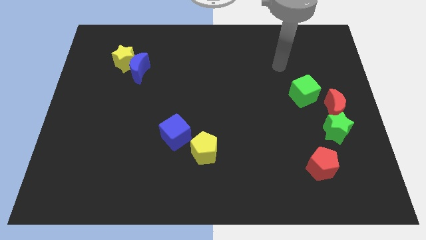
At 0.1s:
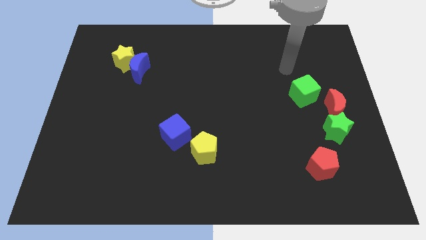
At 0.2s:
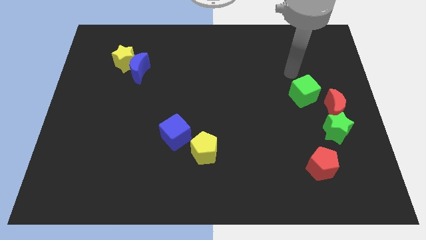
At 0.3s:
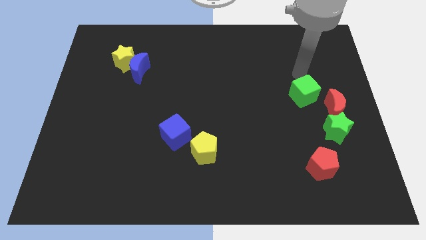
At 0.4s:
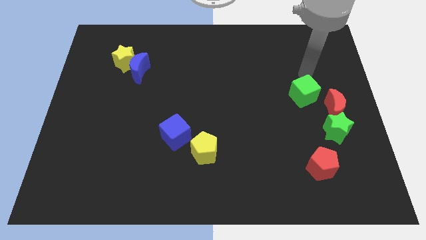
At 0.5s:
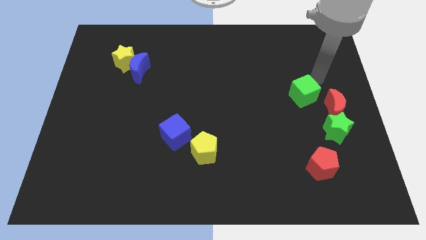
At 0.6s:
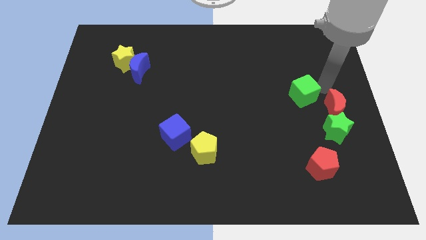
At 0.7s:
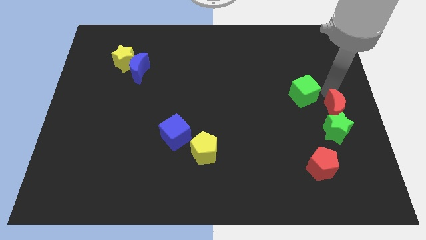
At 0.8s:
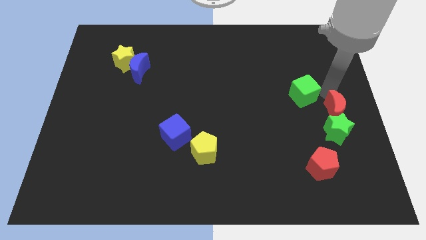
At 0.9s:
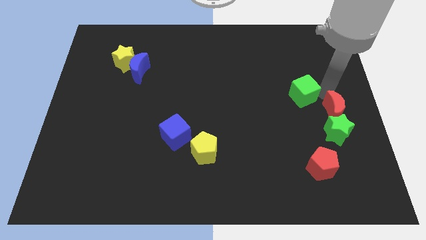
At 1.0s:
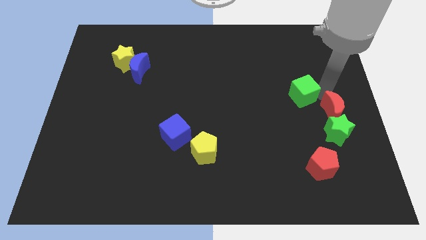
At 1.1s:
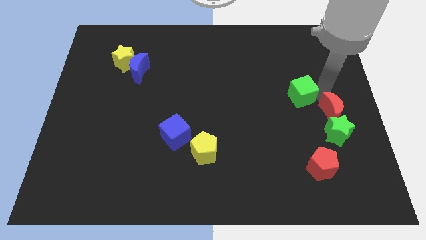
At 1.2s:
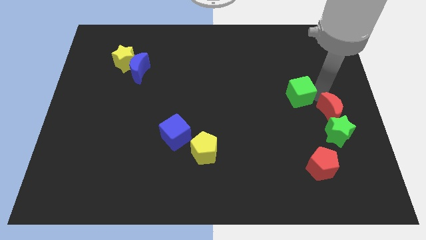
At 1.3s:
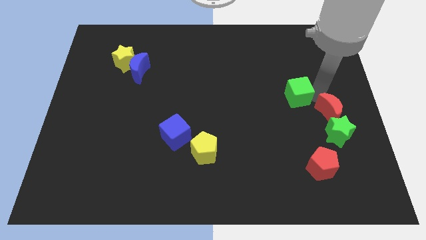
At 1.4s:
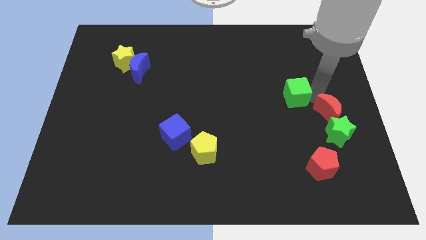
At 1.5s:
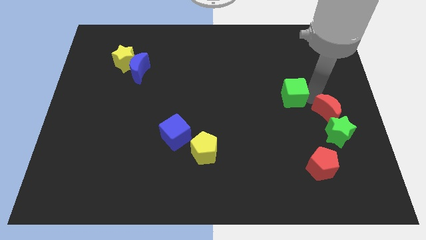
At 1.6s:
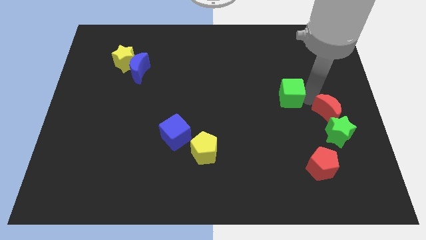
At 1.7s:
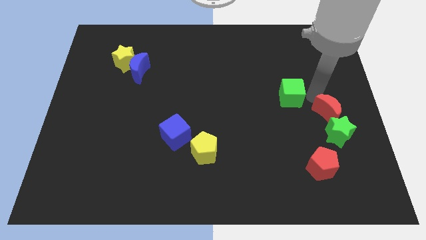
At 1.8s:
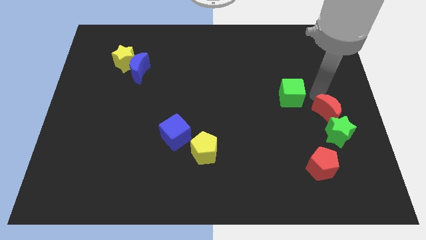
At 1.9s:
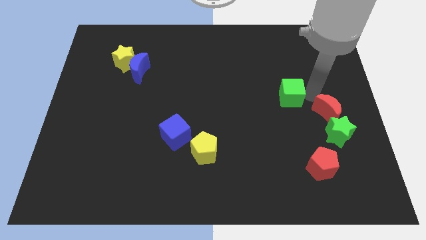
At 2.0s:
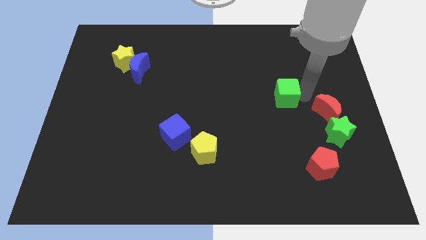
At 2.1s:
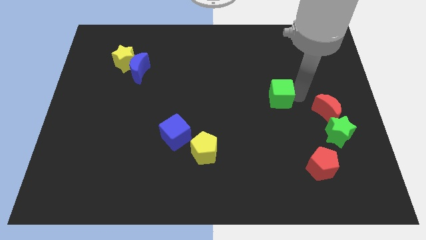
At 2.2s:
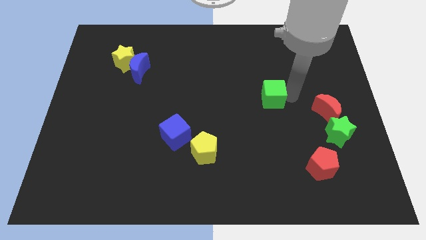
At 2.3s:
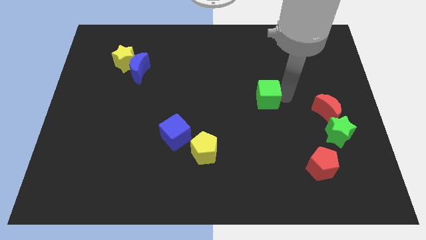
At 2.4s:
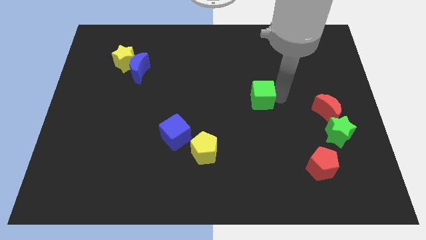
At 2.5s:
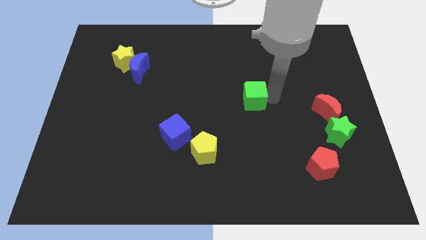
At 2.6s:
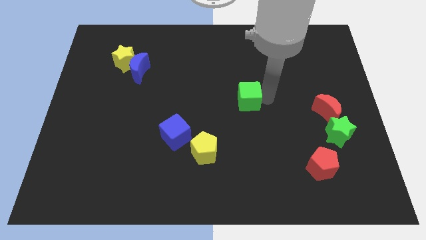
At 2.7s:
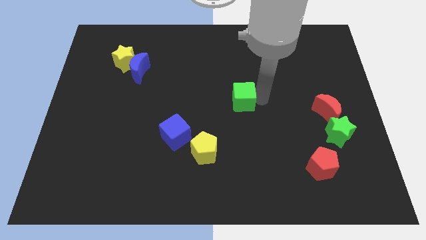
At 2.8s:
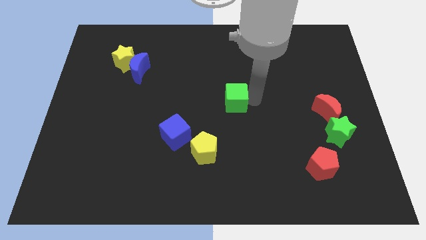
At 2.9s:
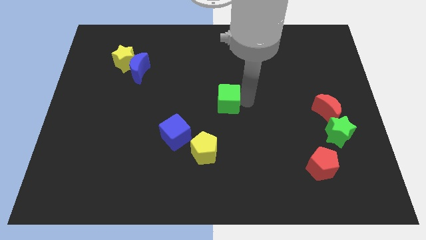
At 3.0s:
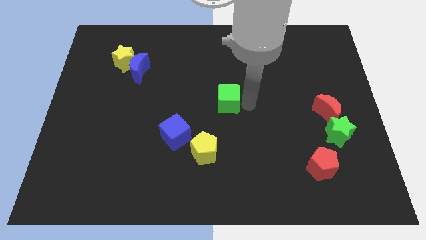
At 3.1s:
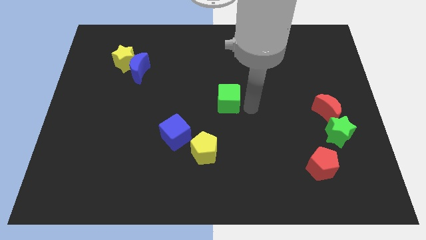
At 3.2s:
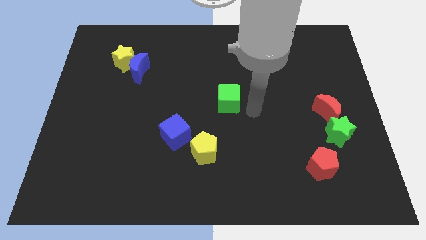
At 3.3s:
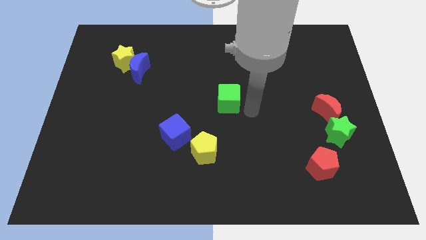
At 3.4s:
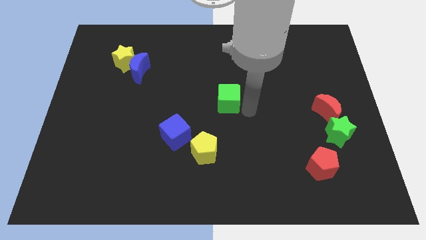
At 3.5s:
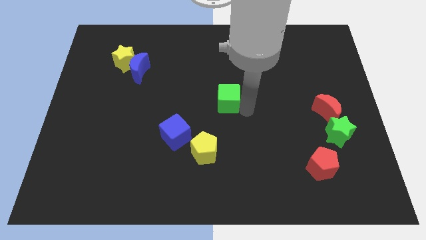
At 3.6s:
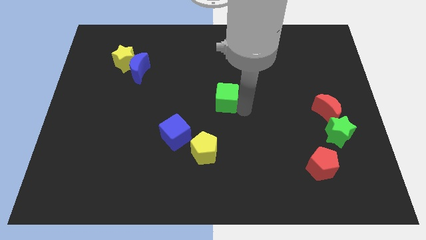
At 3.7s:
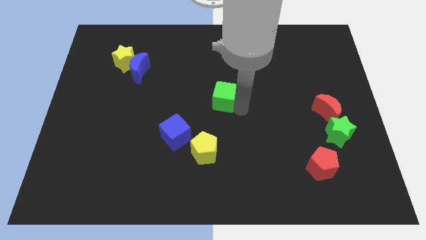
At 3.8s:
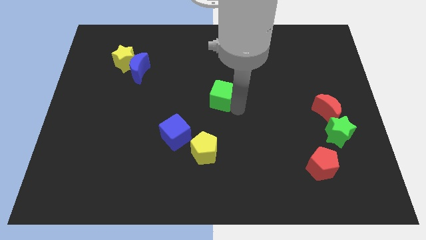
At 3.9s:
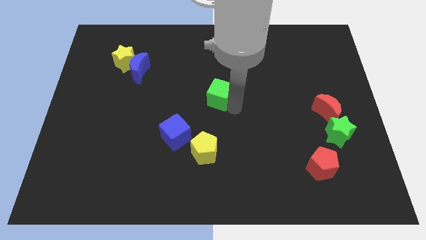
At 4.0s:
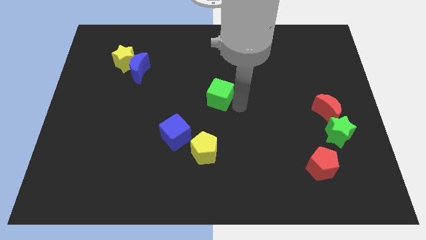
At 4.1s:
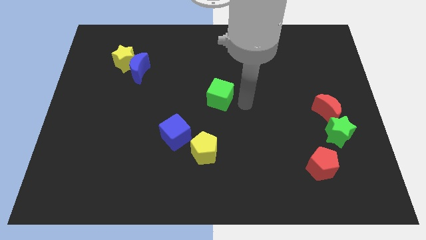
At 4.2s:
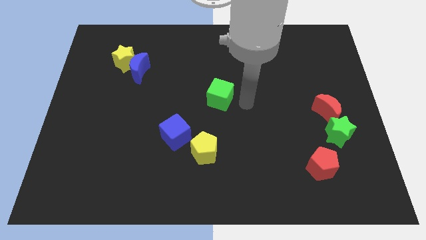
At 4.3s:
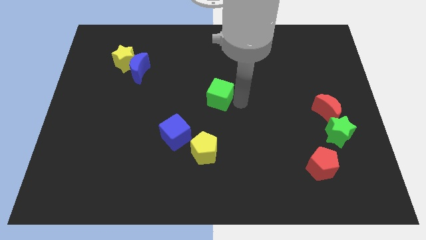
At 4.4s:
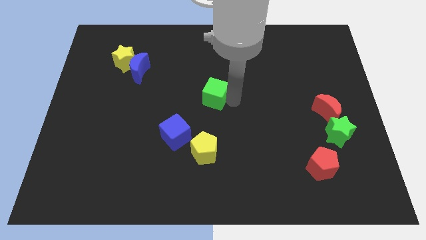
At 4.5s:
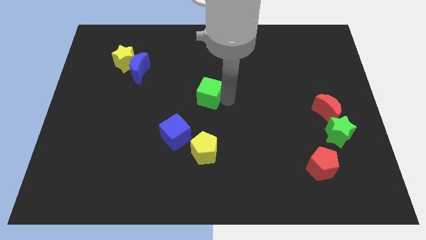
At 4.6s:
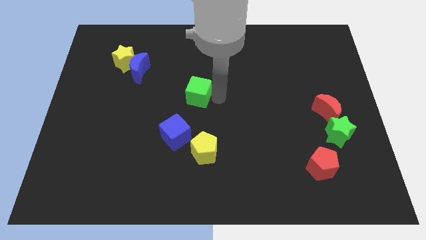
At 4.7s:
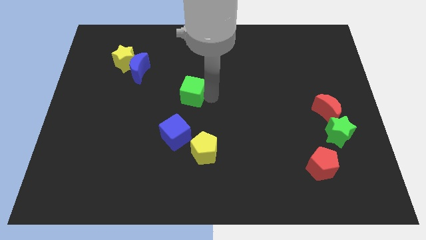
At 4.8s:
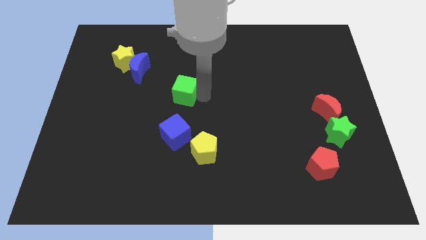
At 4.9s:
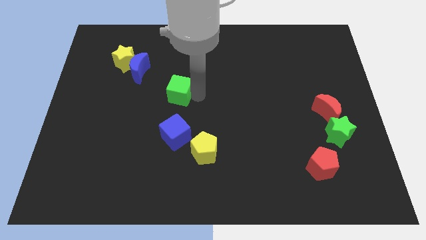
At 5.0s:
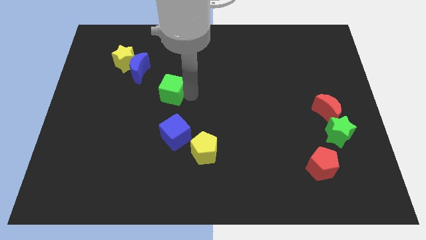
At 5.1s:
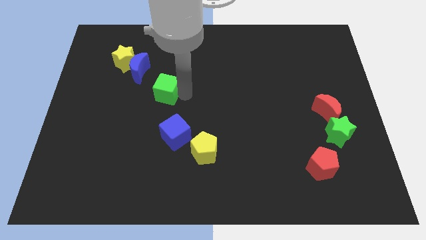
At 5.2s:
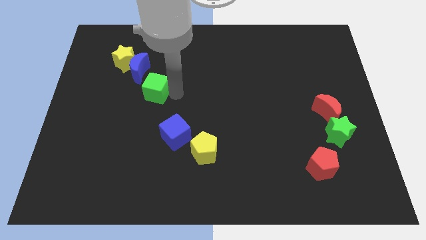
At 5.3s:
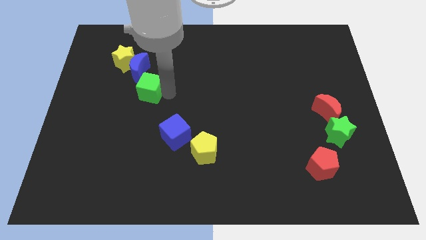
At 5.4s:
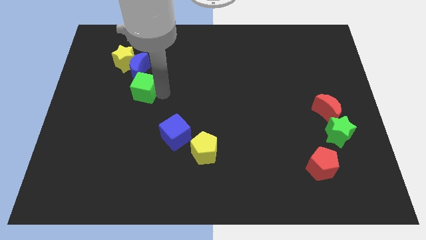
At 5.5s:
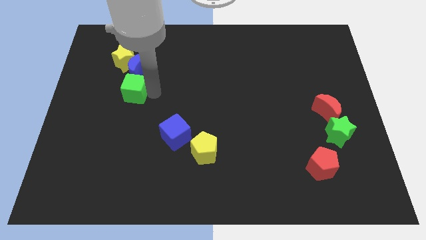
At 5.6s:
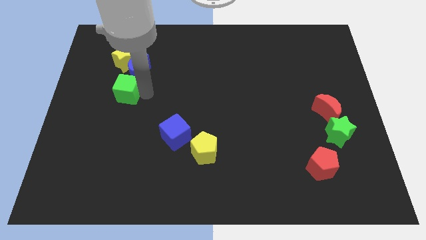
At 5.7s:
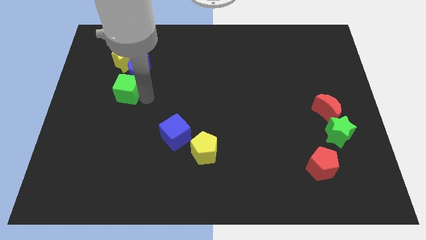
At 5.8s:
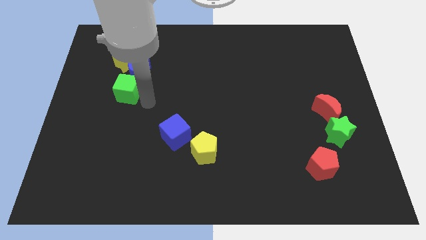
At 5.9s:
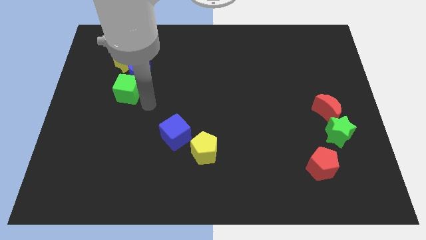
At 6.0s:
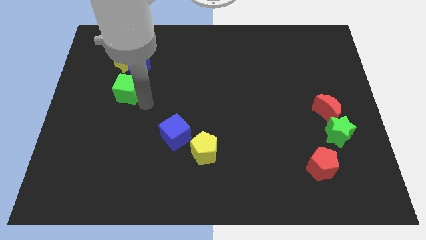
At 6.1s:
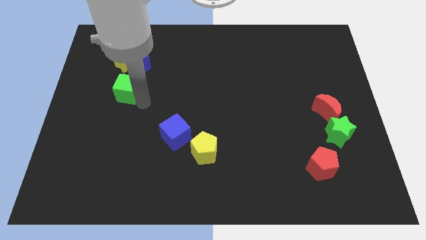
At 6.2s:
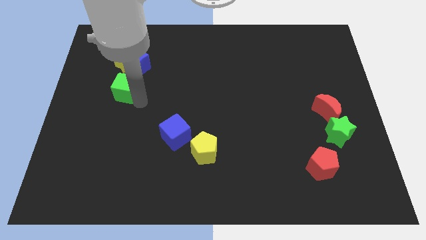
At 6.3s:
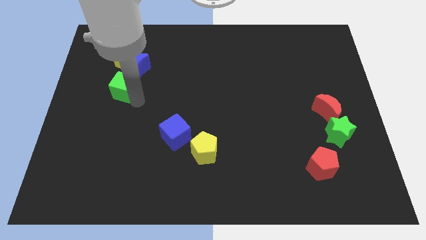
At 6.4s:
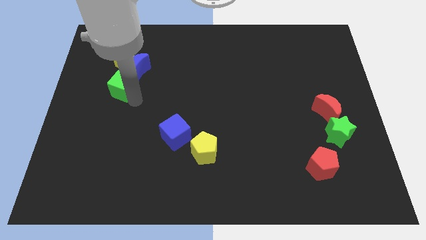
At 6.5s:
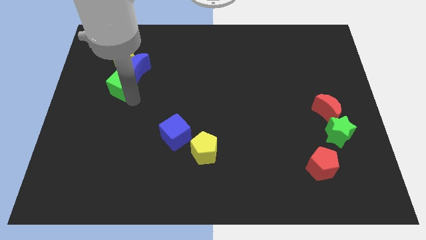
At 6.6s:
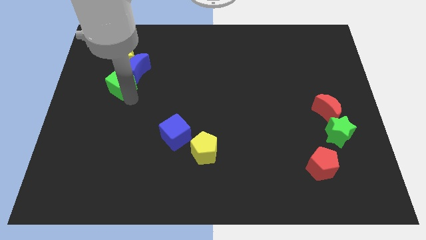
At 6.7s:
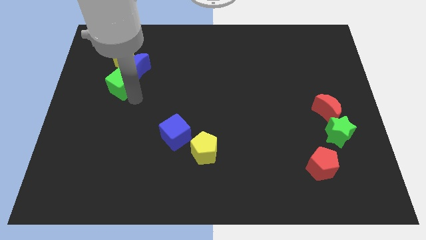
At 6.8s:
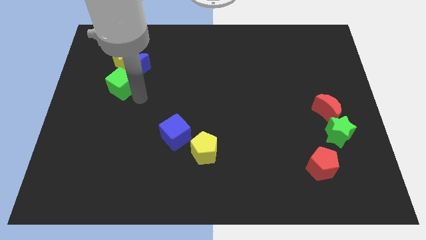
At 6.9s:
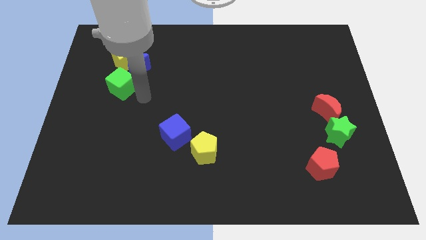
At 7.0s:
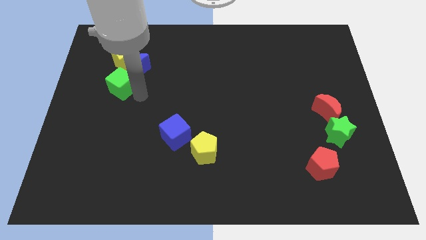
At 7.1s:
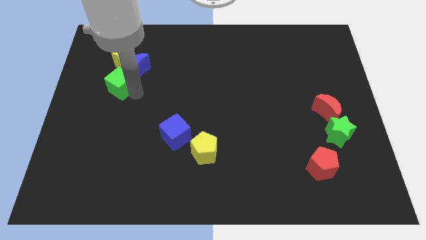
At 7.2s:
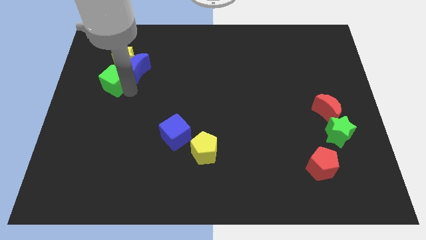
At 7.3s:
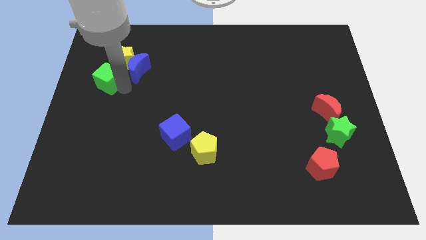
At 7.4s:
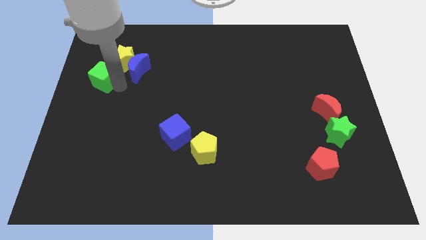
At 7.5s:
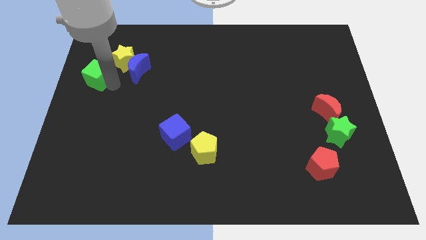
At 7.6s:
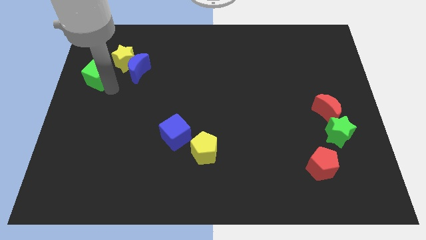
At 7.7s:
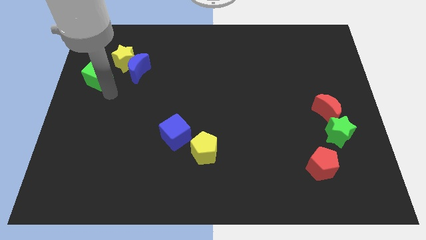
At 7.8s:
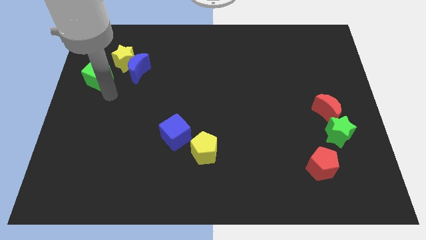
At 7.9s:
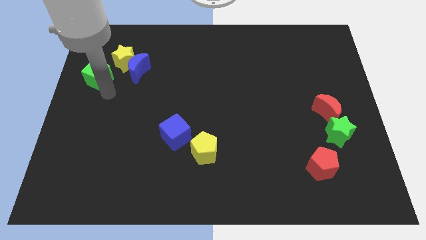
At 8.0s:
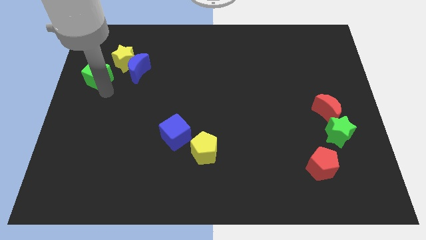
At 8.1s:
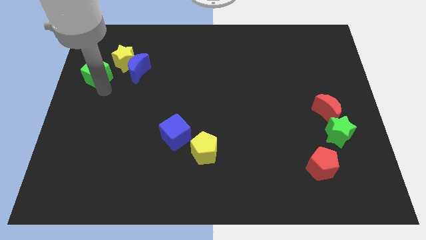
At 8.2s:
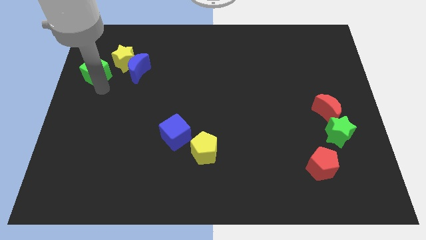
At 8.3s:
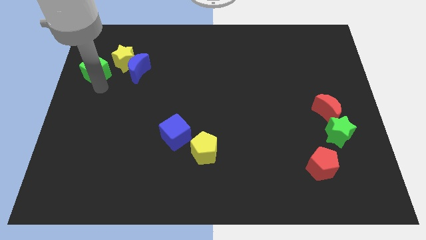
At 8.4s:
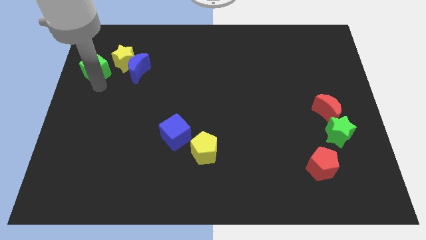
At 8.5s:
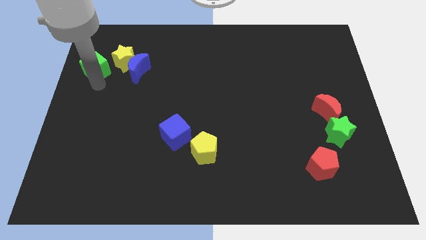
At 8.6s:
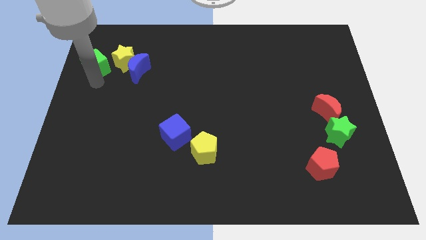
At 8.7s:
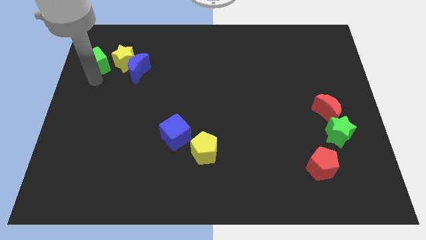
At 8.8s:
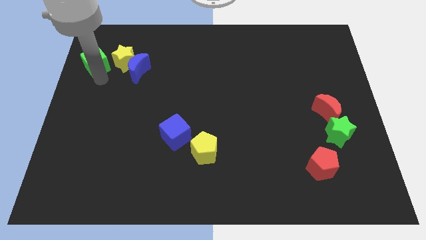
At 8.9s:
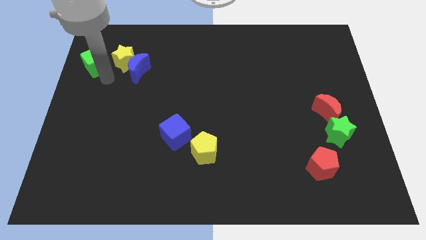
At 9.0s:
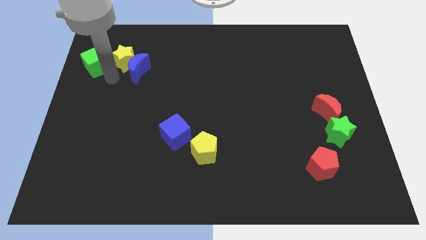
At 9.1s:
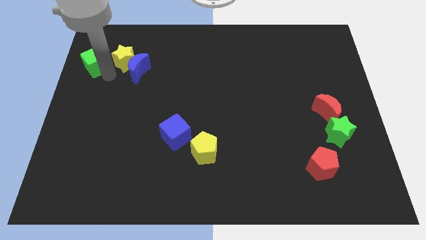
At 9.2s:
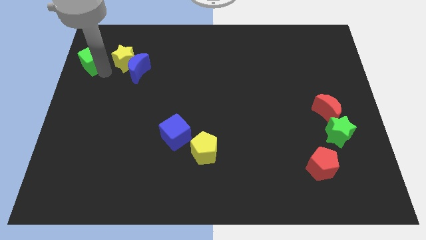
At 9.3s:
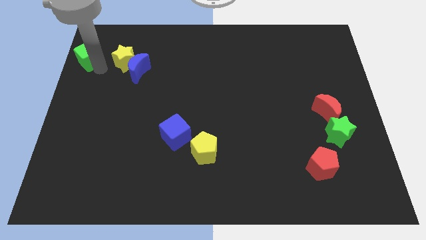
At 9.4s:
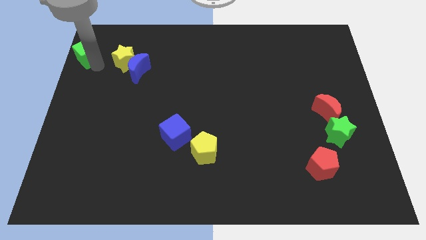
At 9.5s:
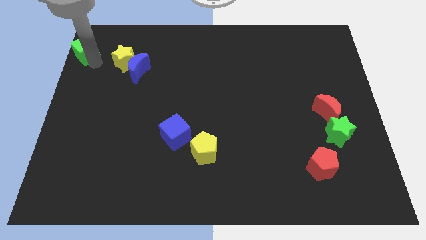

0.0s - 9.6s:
move the green cube to the top left of the board
